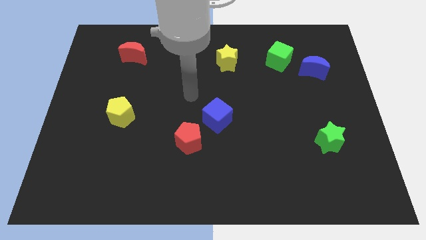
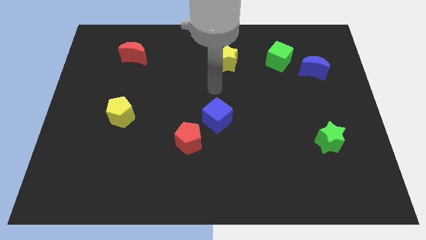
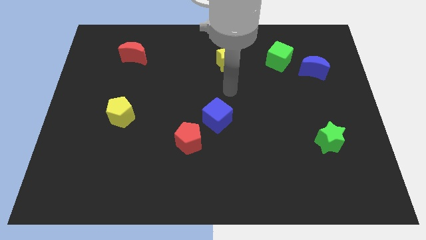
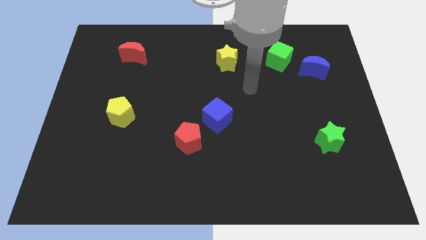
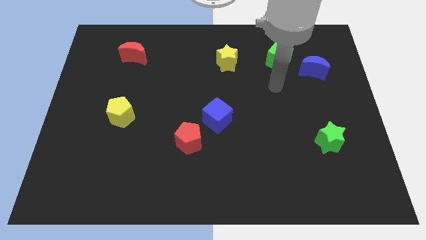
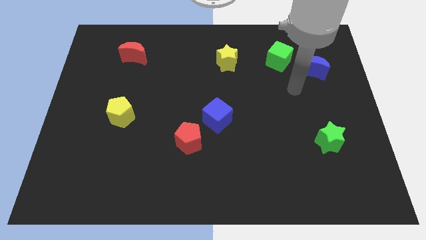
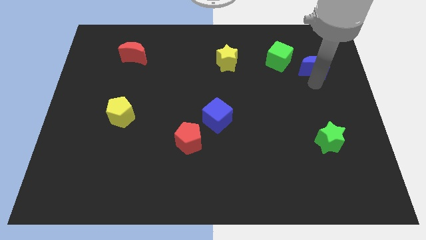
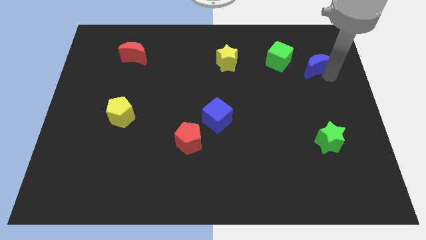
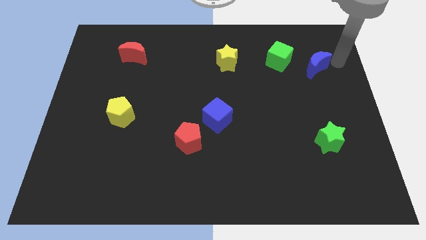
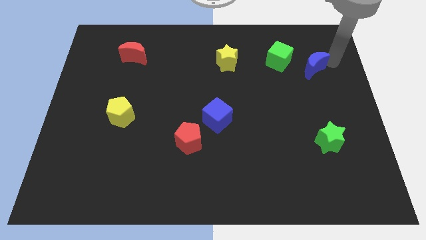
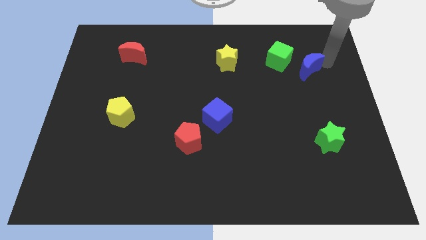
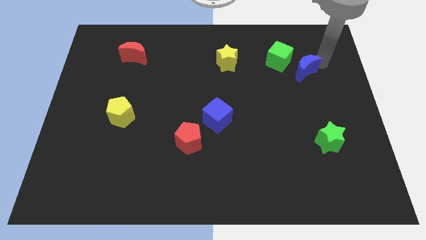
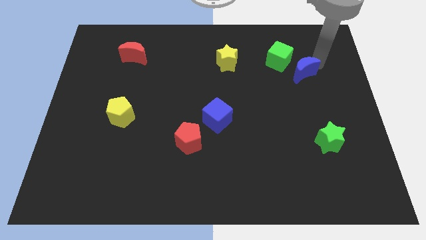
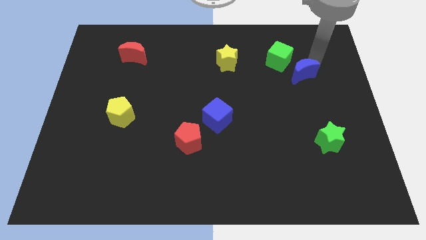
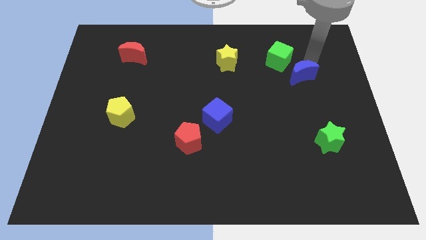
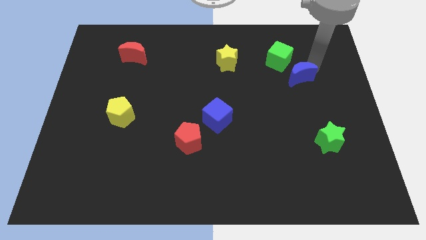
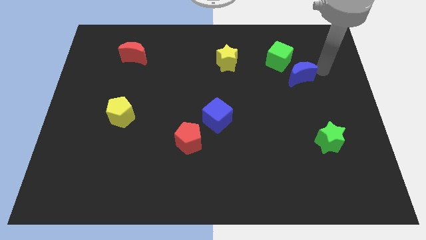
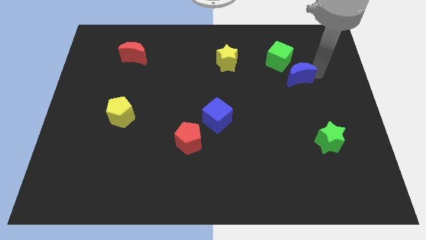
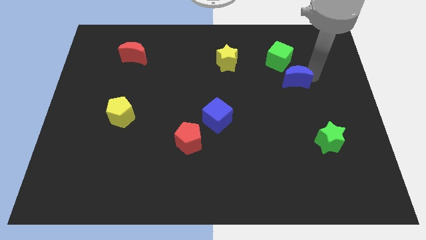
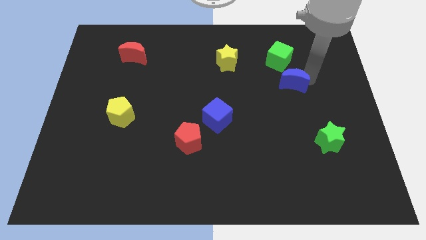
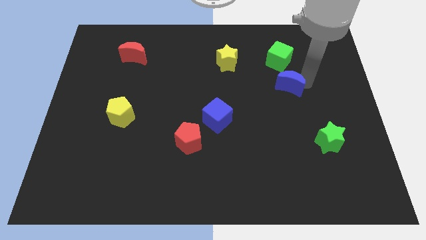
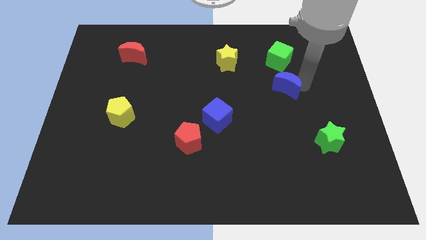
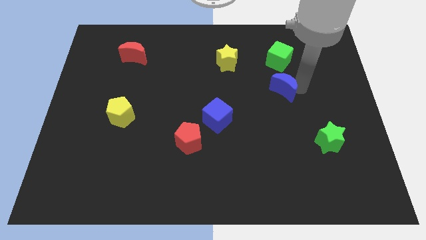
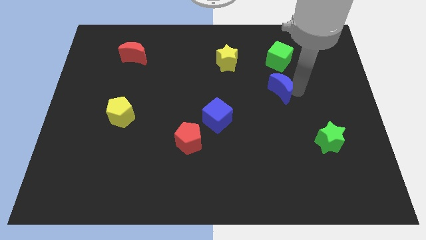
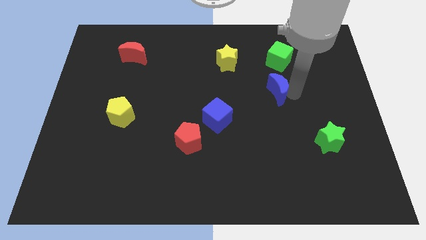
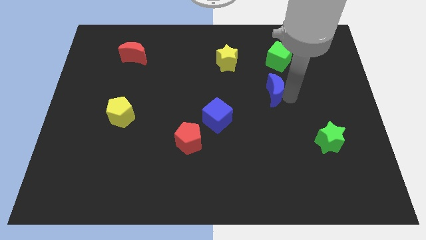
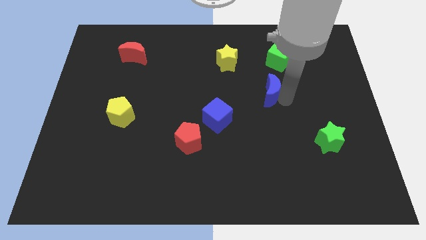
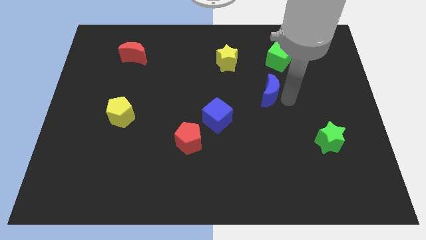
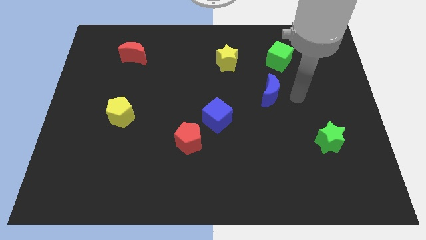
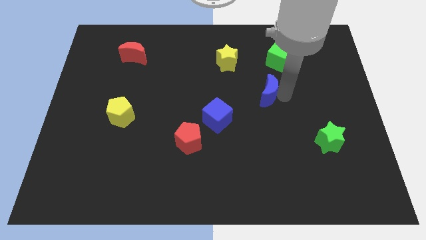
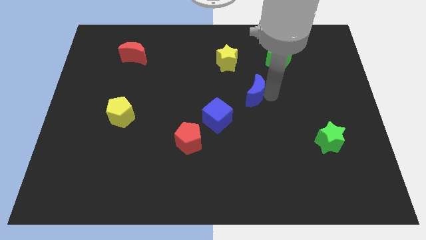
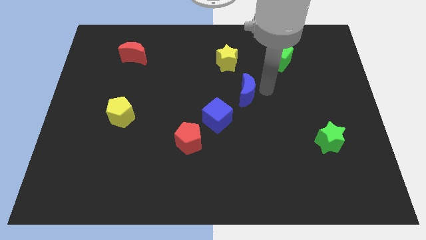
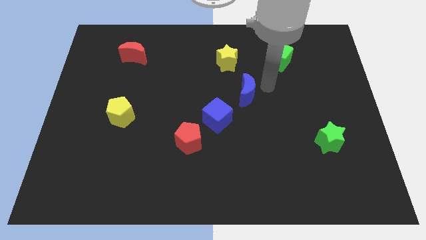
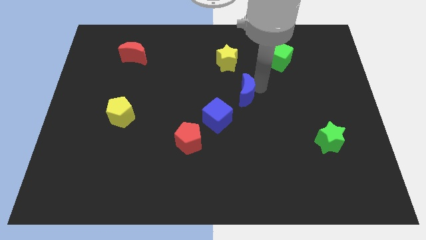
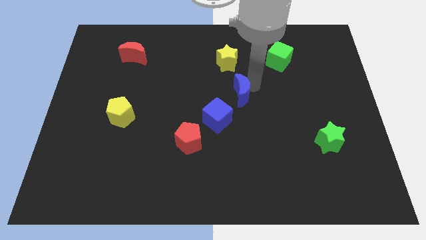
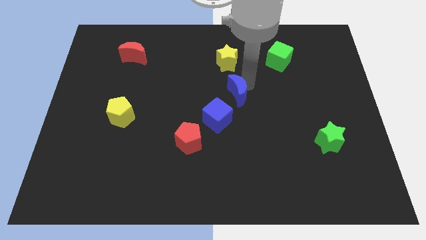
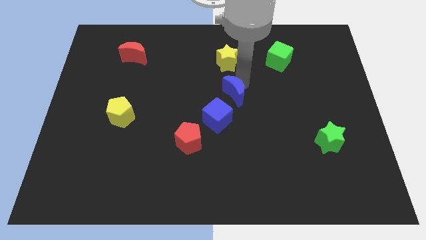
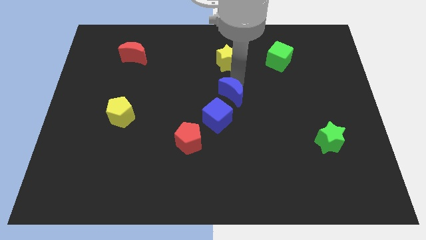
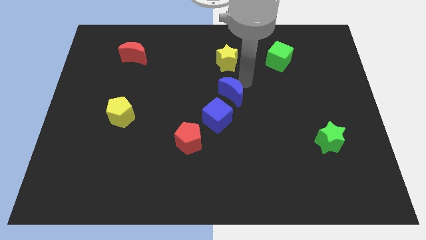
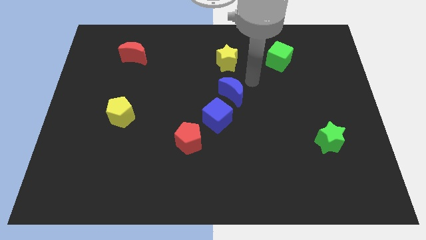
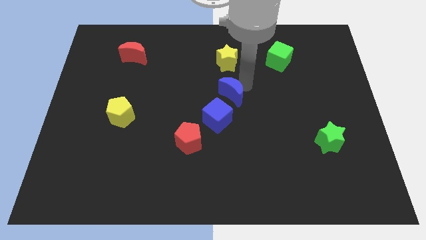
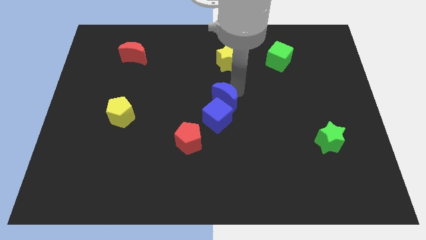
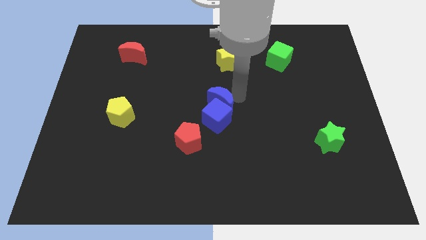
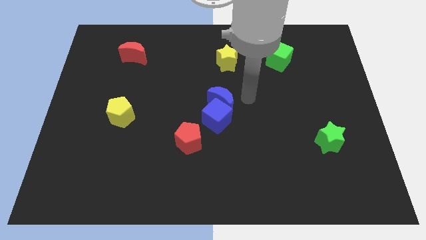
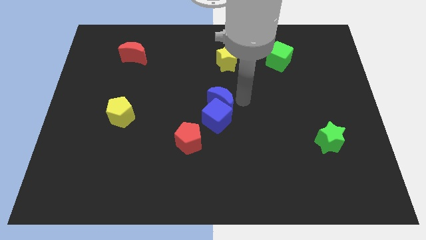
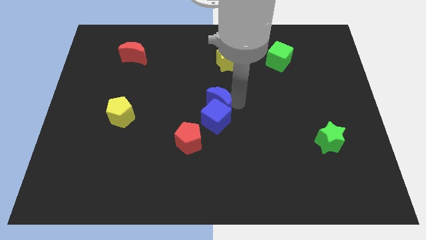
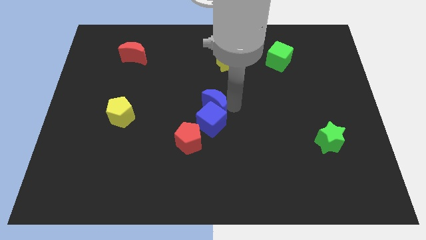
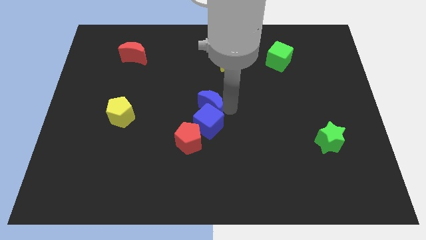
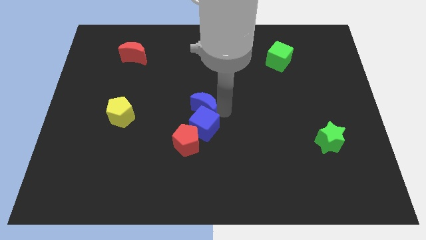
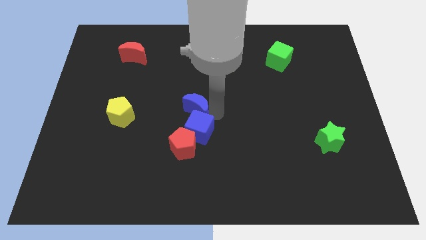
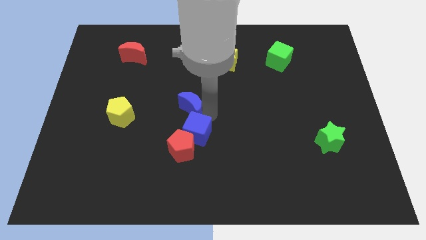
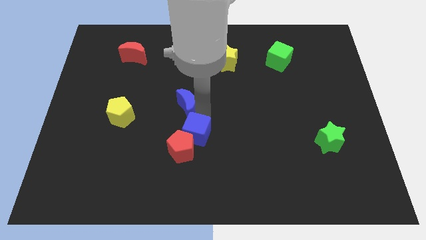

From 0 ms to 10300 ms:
move the blue moon right of the yellow pentagon

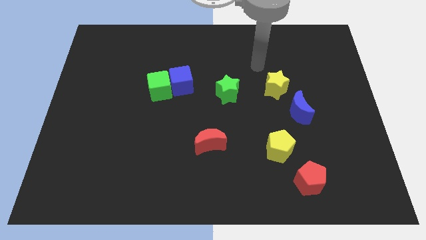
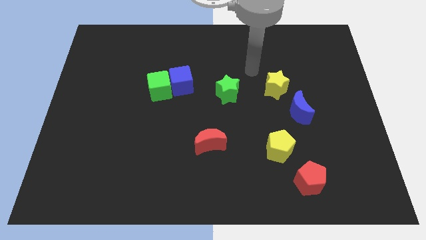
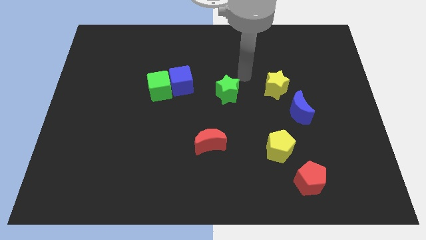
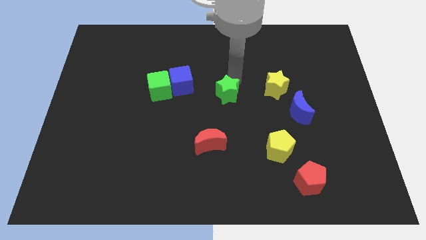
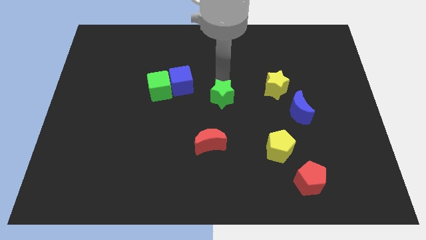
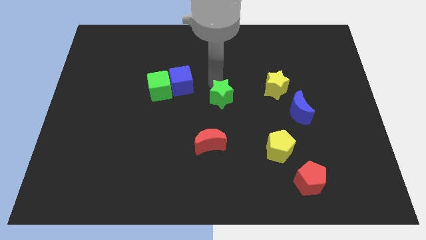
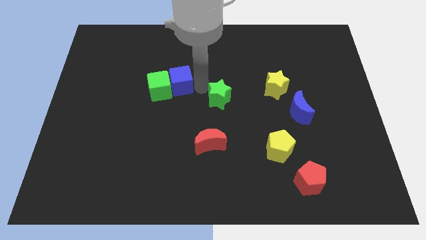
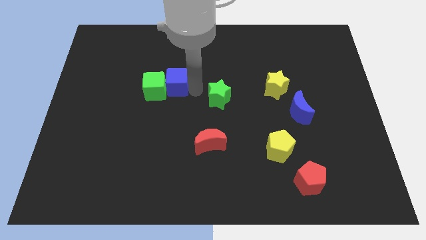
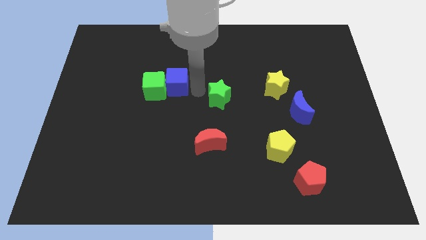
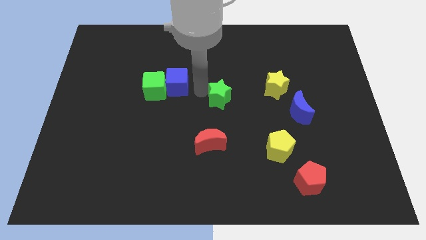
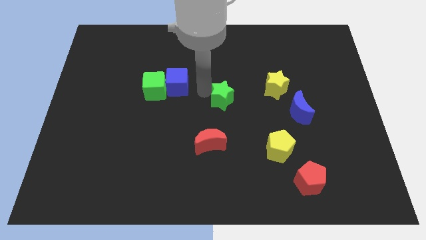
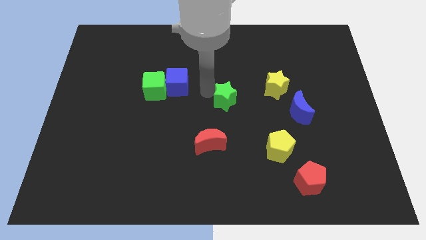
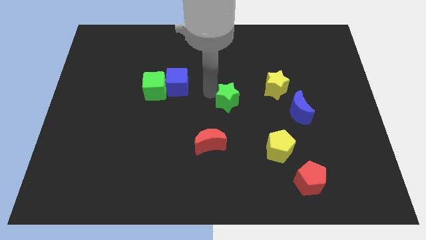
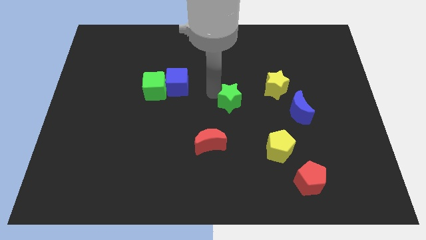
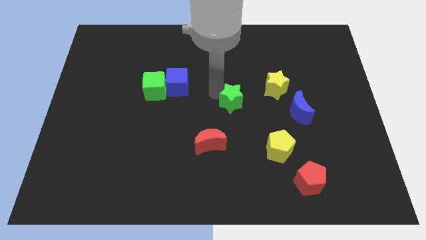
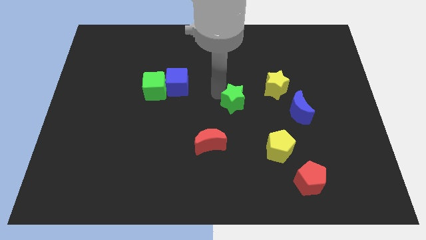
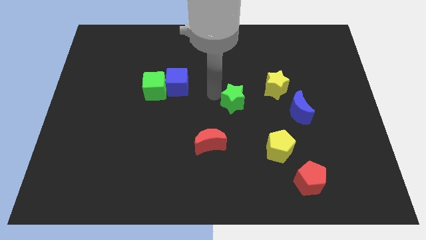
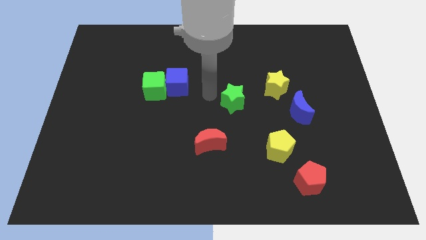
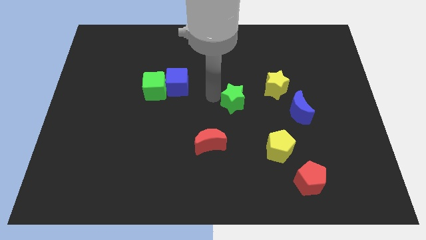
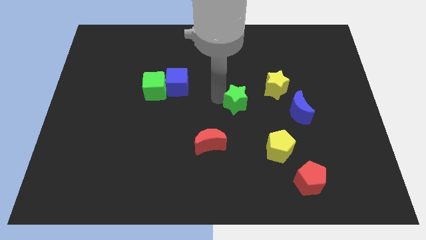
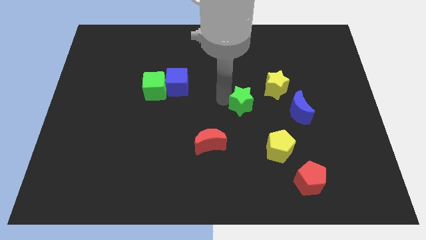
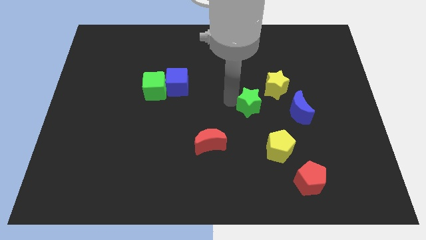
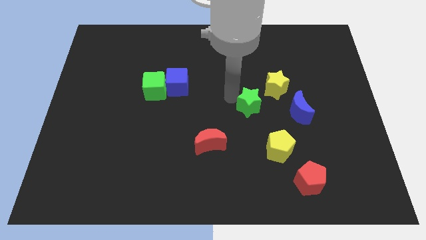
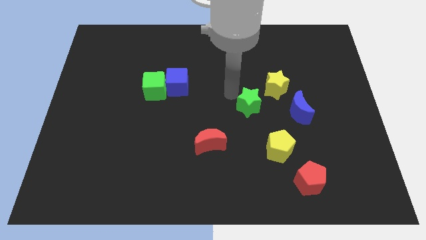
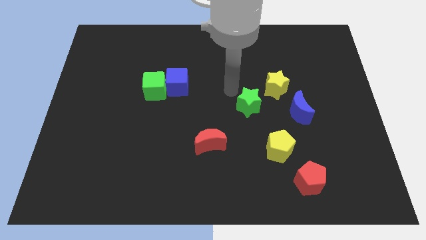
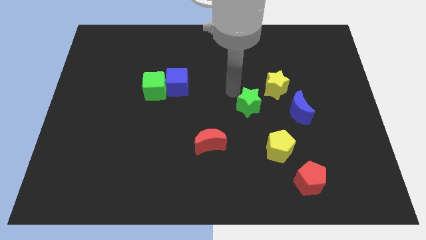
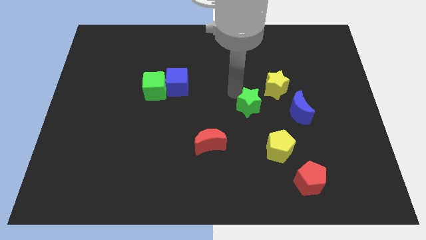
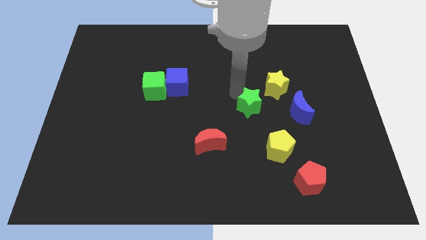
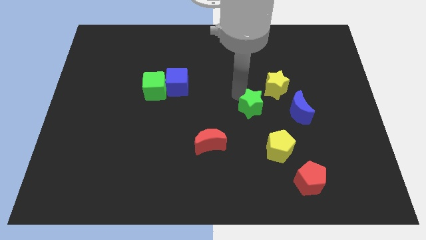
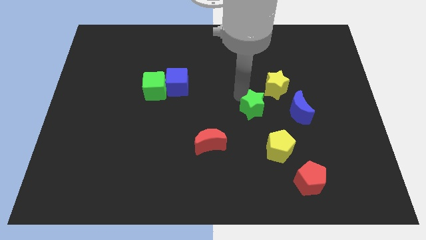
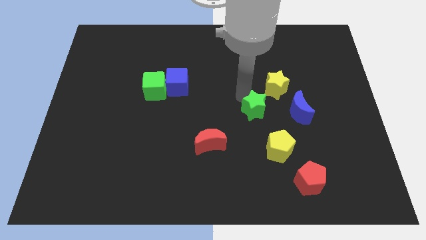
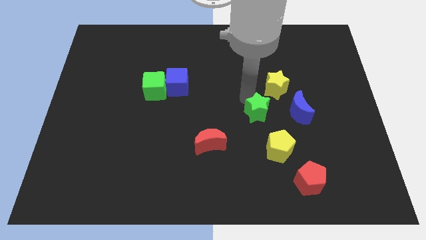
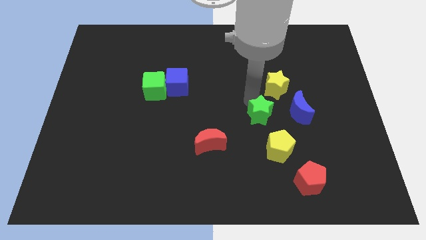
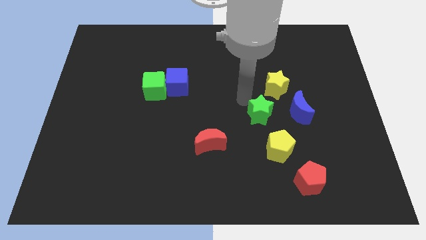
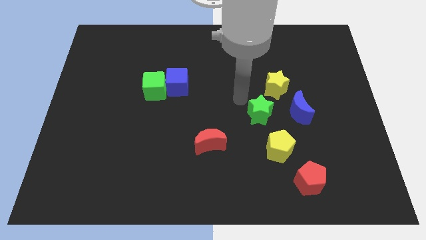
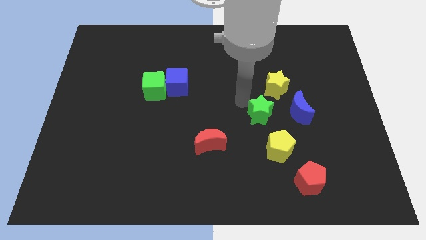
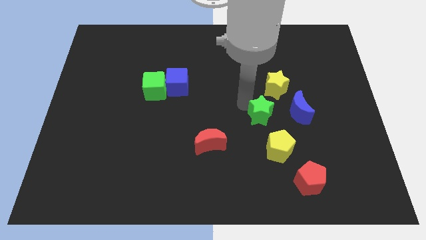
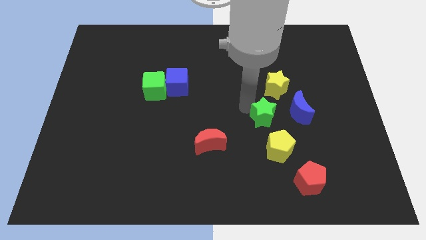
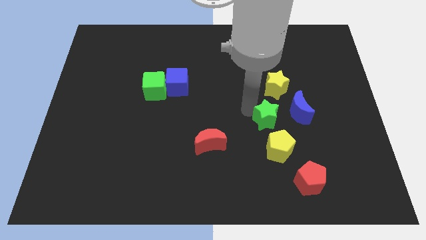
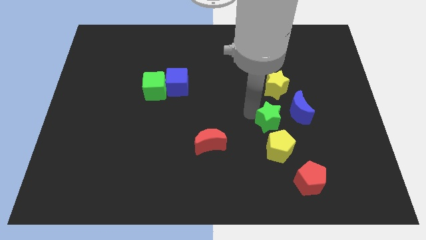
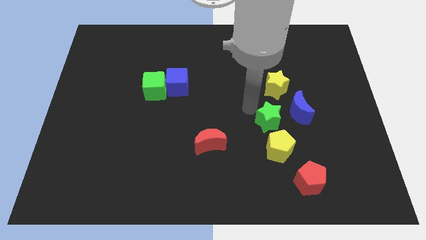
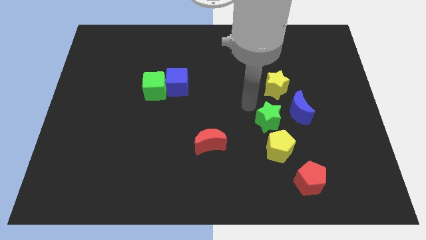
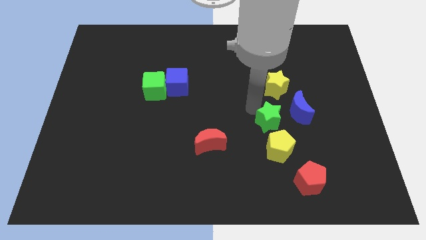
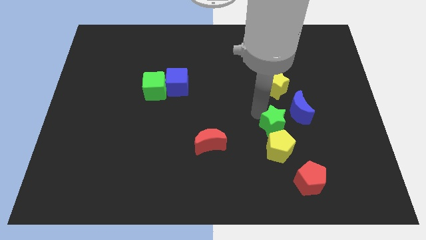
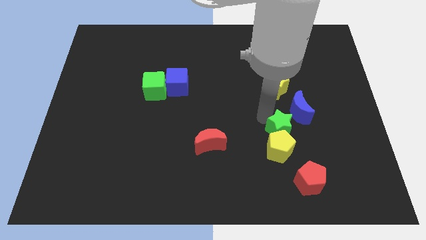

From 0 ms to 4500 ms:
move the green star below the blue moon
